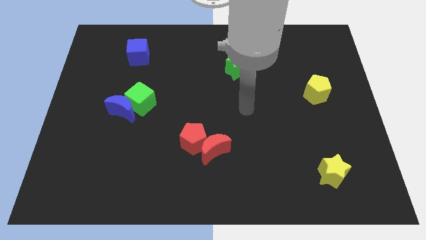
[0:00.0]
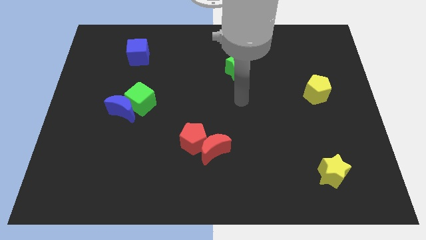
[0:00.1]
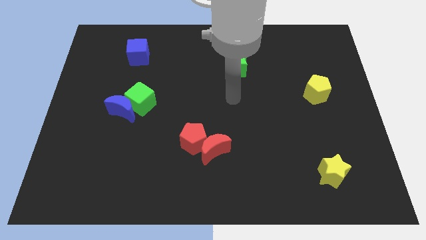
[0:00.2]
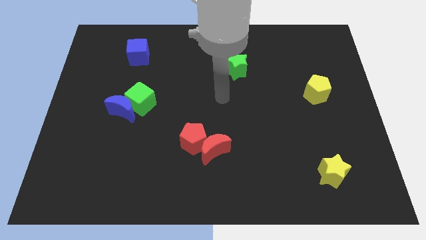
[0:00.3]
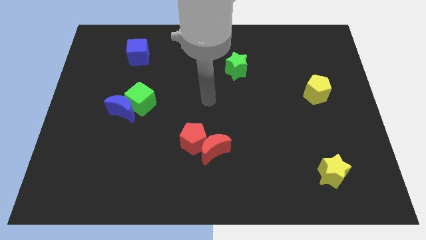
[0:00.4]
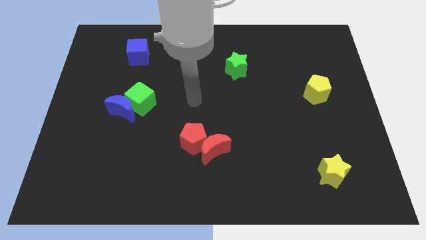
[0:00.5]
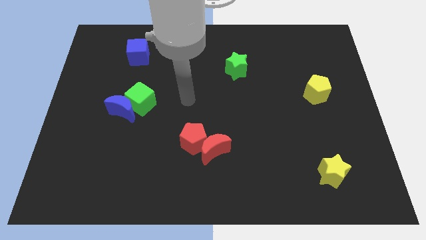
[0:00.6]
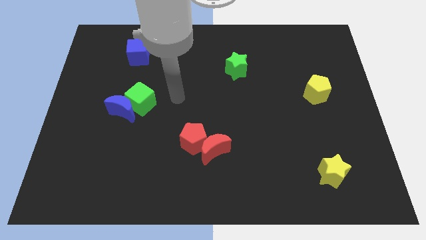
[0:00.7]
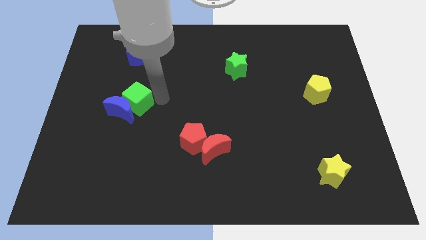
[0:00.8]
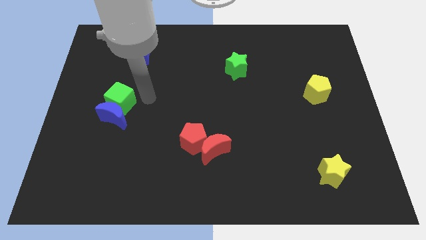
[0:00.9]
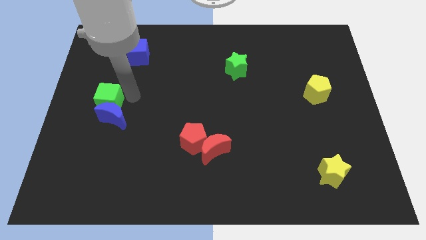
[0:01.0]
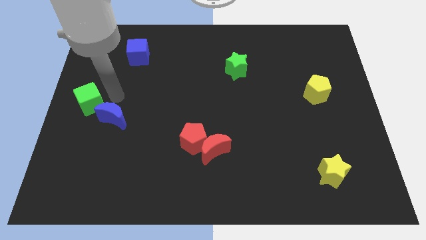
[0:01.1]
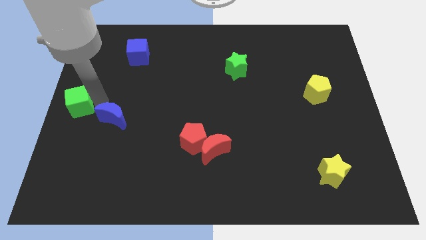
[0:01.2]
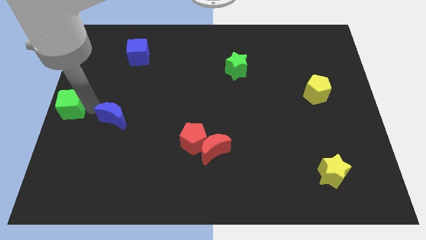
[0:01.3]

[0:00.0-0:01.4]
move the blue moon away from the green cube

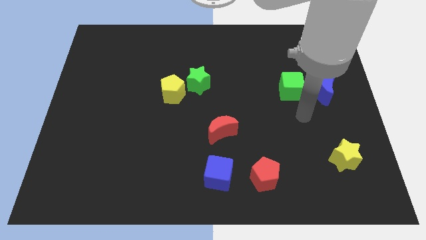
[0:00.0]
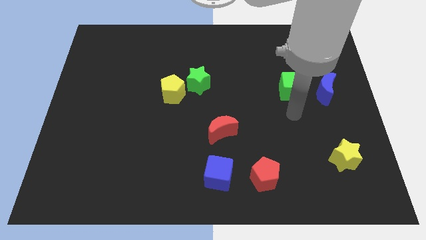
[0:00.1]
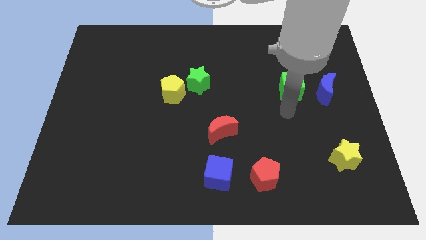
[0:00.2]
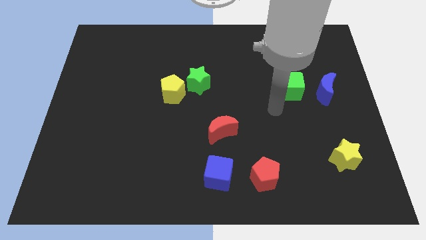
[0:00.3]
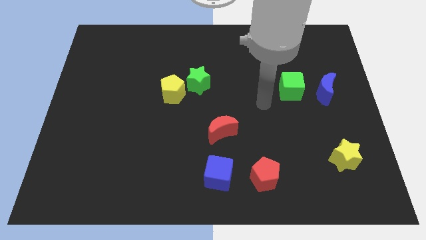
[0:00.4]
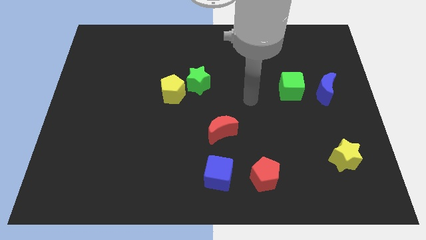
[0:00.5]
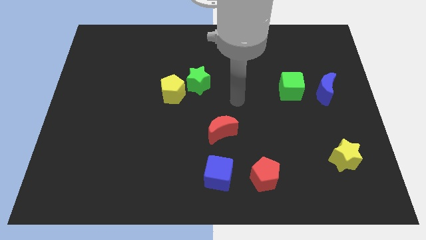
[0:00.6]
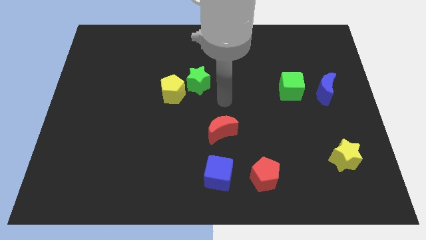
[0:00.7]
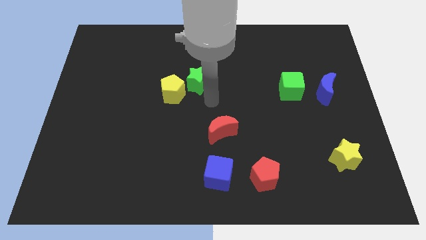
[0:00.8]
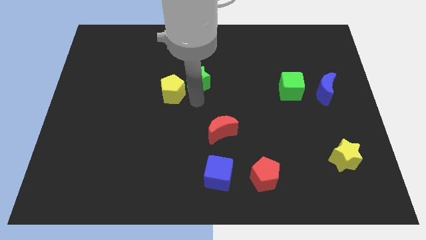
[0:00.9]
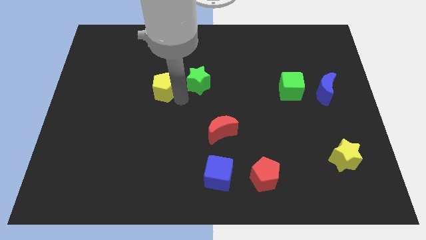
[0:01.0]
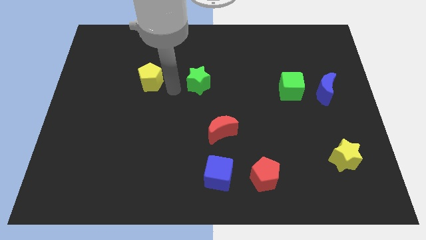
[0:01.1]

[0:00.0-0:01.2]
move the green star away from the yellow pentagon

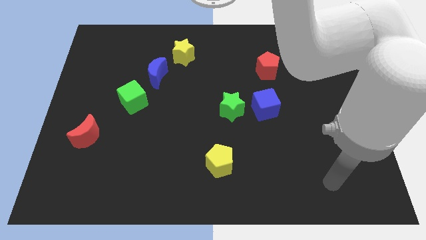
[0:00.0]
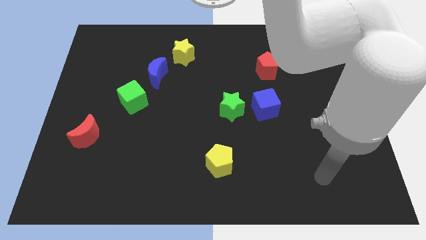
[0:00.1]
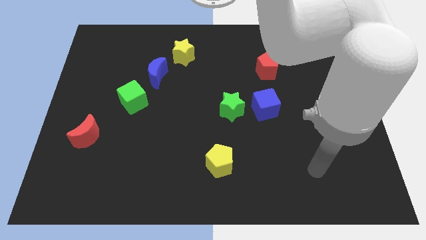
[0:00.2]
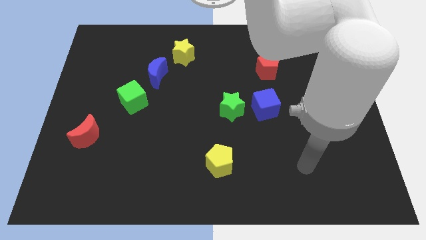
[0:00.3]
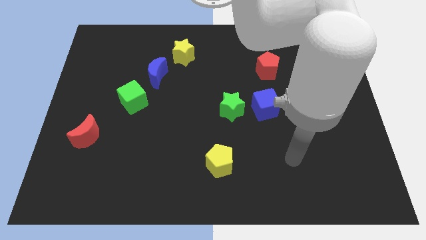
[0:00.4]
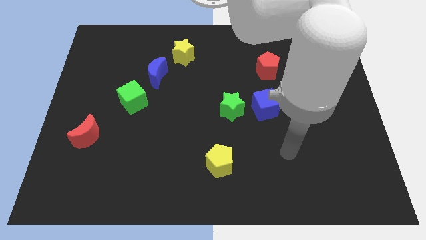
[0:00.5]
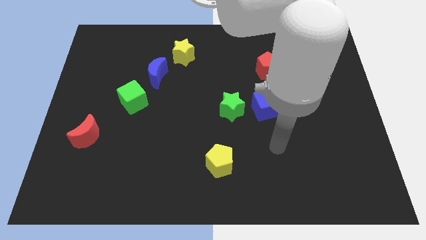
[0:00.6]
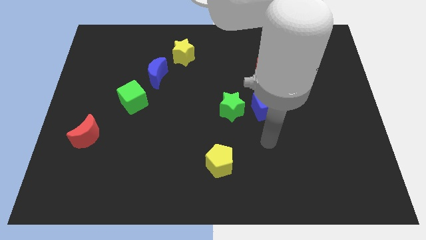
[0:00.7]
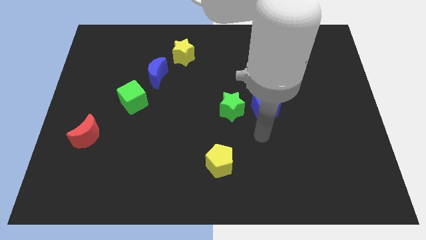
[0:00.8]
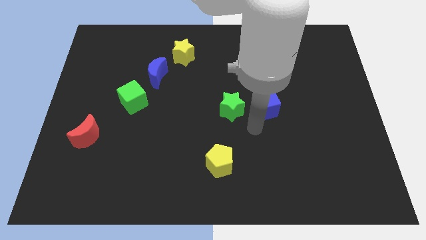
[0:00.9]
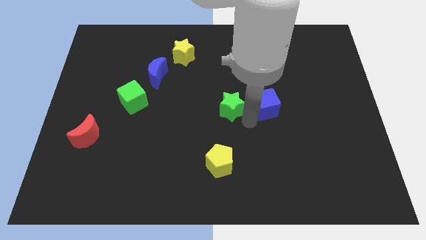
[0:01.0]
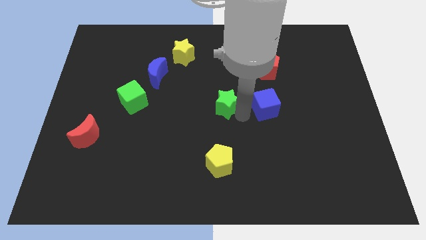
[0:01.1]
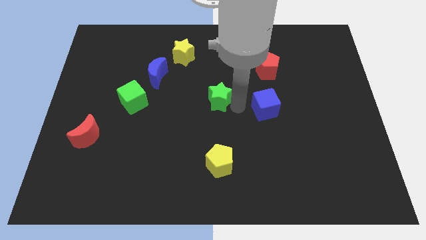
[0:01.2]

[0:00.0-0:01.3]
pull the blue cube apart from the green star

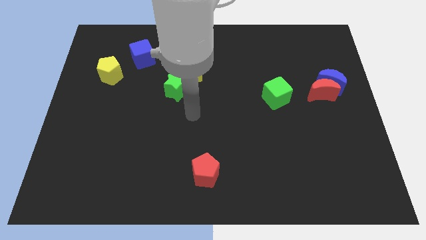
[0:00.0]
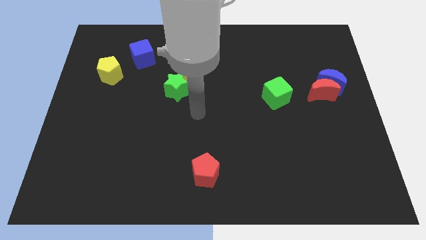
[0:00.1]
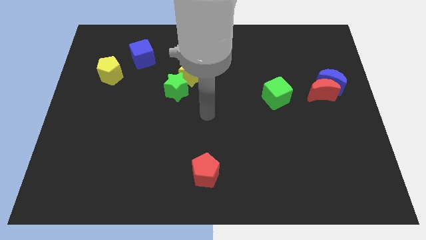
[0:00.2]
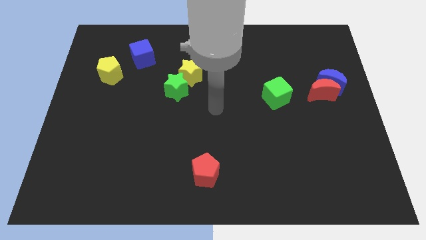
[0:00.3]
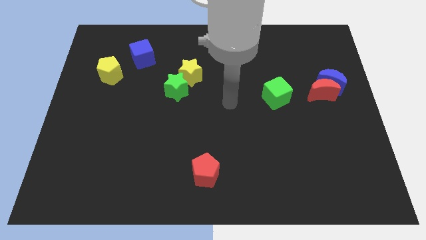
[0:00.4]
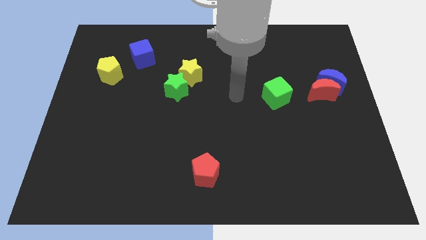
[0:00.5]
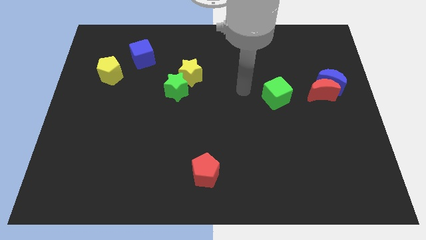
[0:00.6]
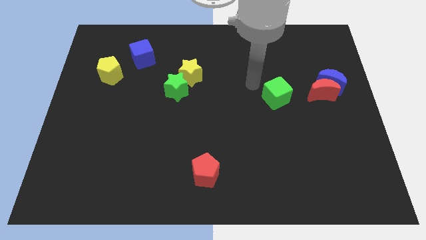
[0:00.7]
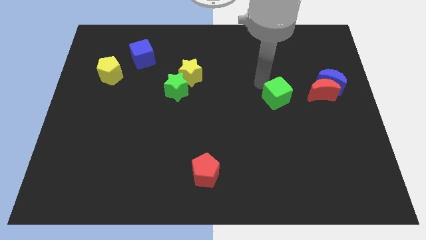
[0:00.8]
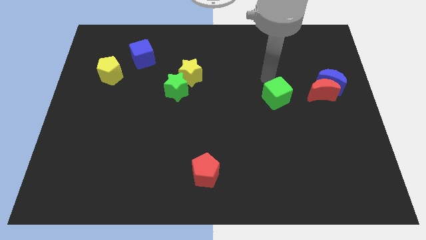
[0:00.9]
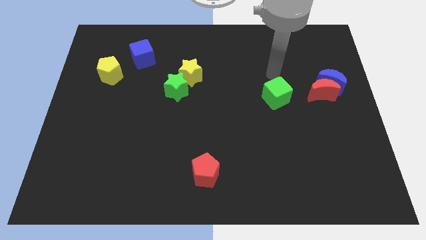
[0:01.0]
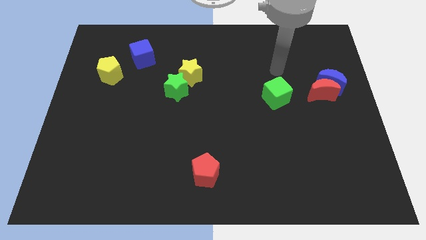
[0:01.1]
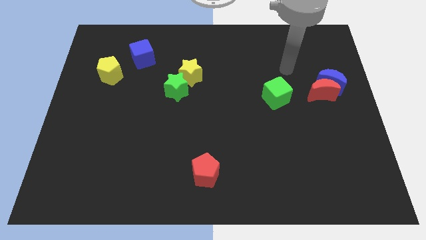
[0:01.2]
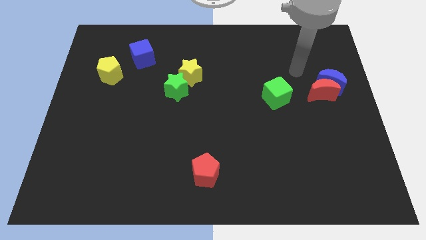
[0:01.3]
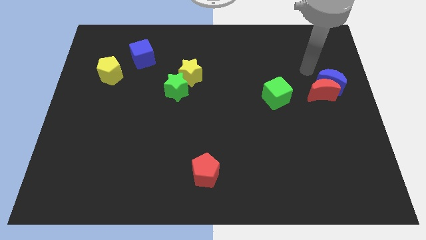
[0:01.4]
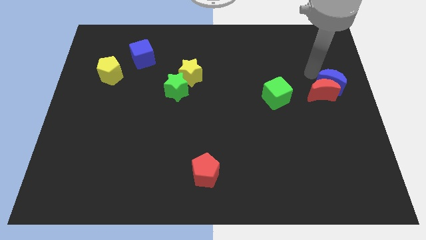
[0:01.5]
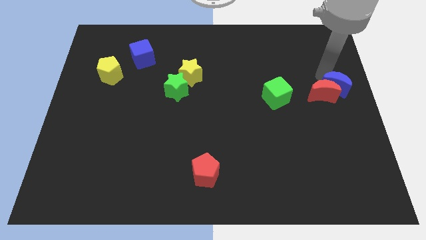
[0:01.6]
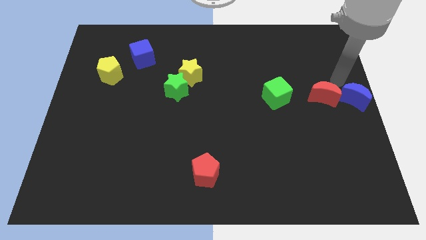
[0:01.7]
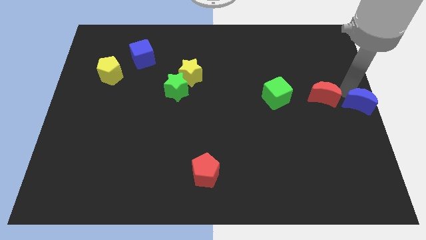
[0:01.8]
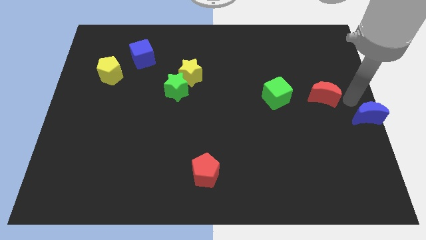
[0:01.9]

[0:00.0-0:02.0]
pull the red moon apart from the blue moon

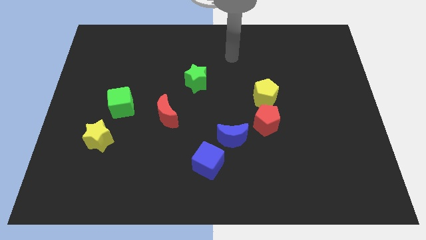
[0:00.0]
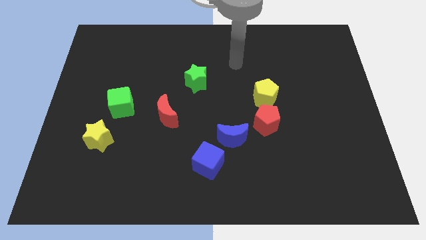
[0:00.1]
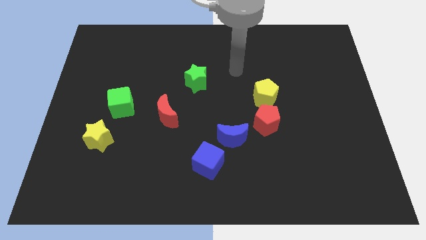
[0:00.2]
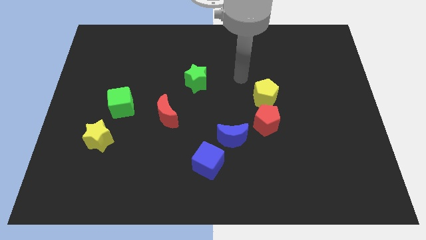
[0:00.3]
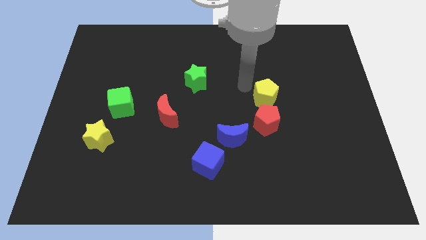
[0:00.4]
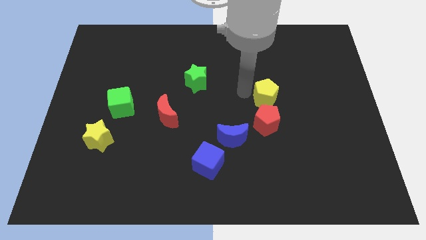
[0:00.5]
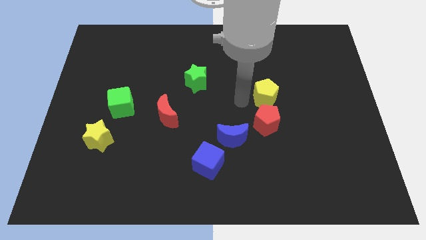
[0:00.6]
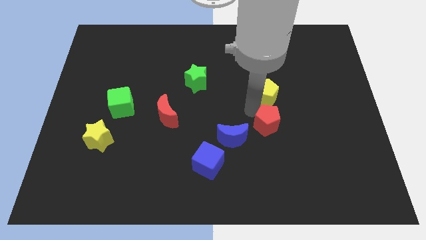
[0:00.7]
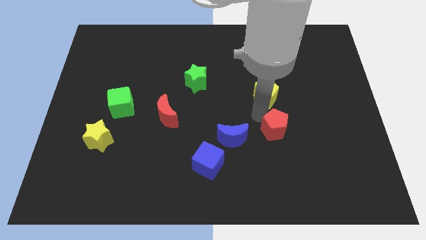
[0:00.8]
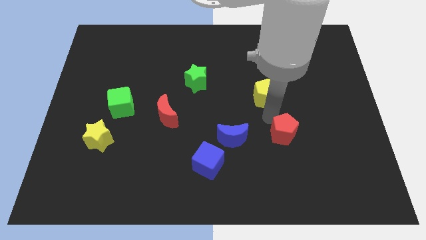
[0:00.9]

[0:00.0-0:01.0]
separate the yellow pentagon from the red pentagon

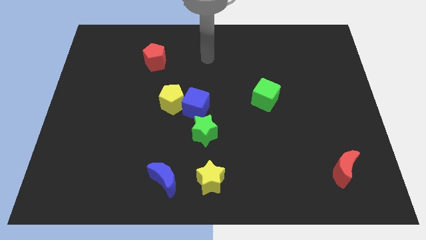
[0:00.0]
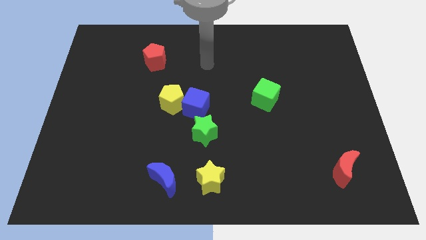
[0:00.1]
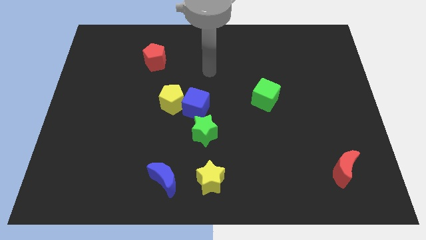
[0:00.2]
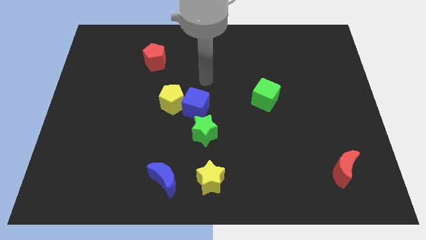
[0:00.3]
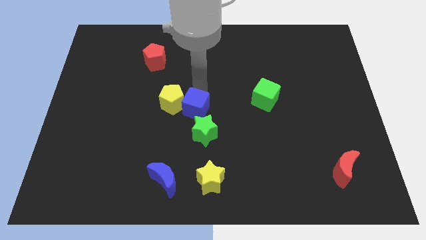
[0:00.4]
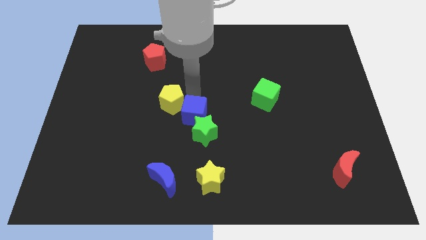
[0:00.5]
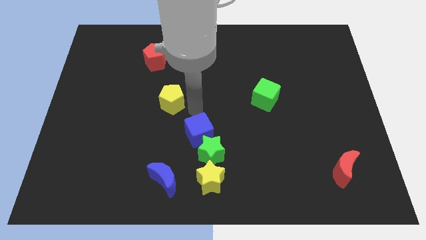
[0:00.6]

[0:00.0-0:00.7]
pull the yellow pentagon apart from the blue cube

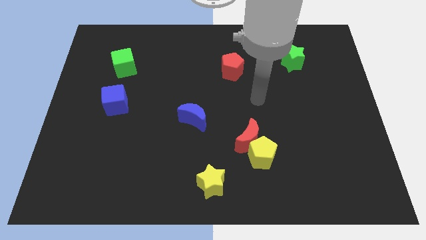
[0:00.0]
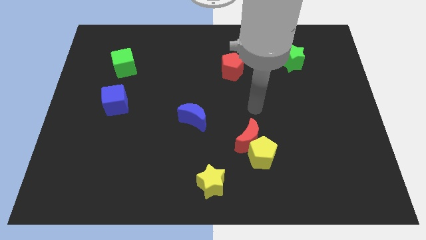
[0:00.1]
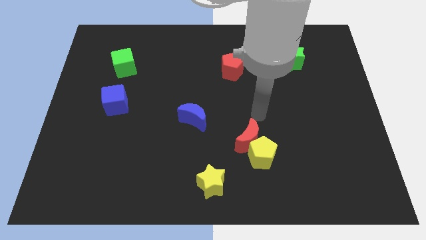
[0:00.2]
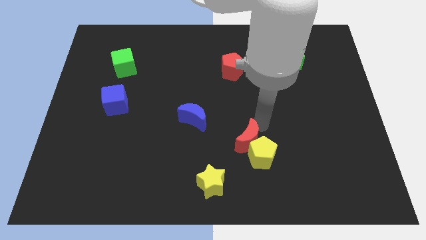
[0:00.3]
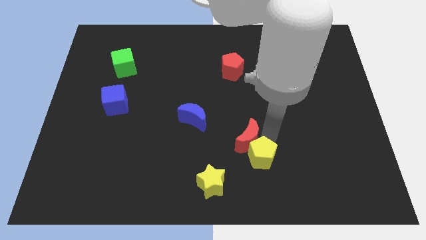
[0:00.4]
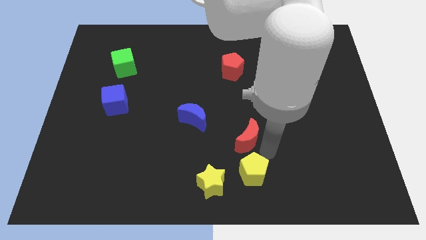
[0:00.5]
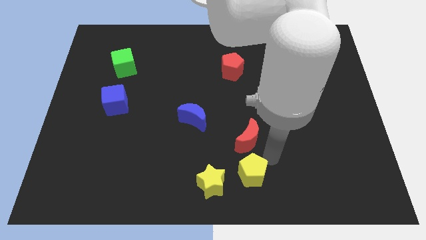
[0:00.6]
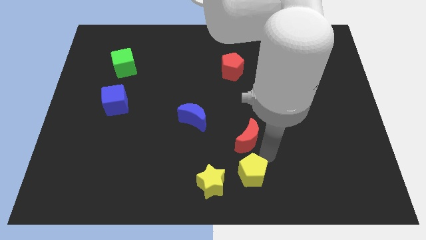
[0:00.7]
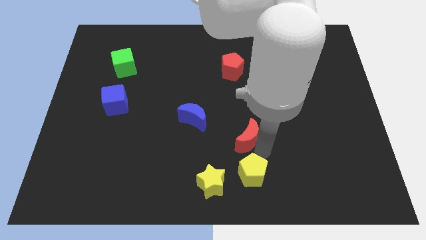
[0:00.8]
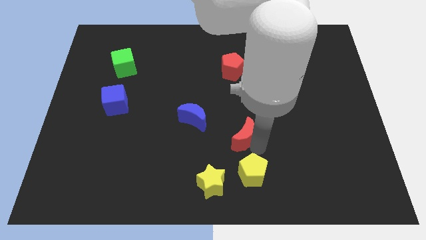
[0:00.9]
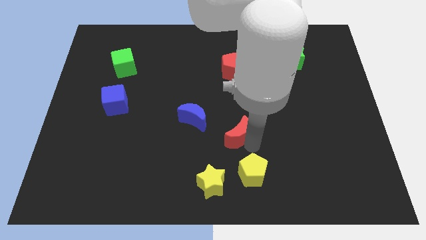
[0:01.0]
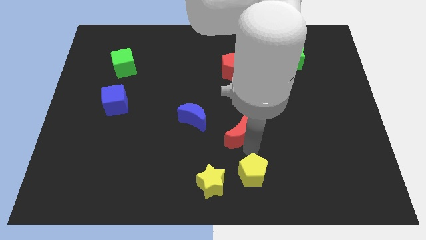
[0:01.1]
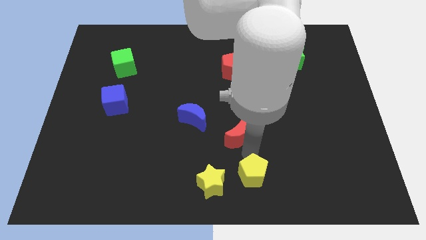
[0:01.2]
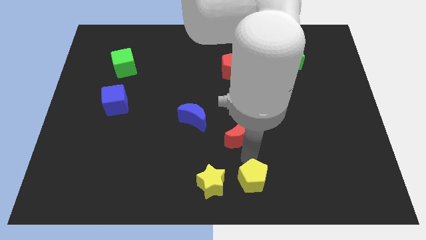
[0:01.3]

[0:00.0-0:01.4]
pull the red moon apart from the yellow pentagon

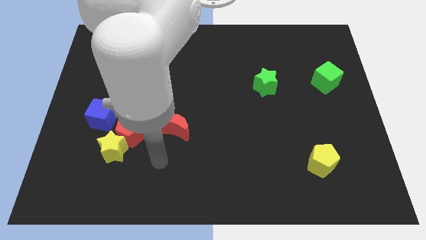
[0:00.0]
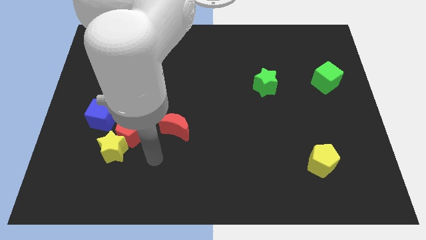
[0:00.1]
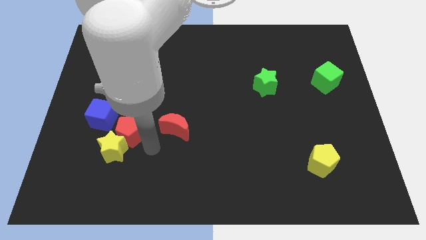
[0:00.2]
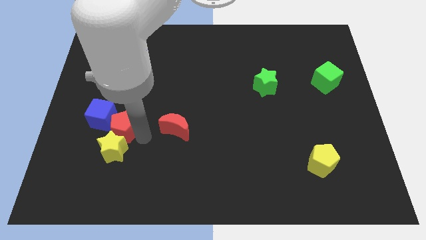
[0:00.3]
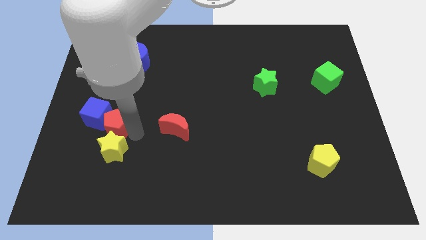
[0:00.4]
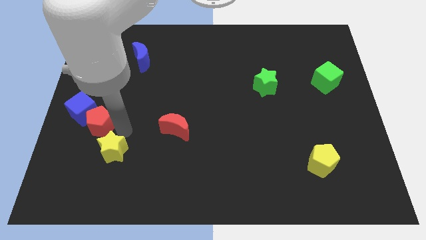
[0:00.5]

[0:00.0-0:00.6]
separate the yellow star from the red pentagon and blue cube
